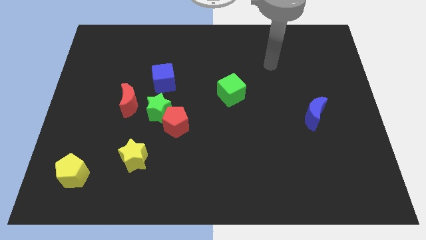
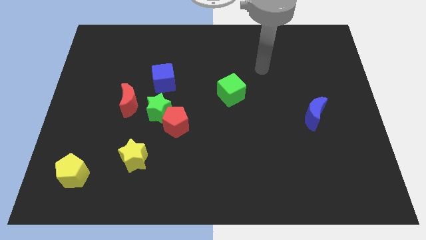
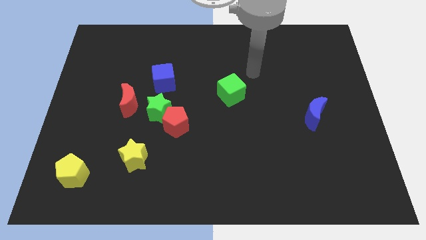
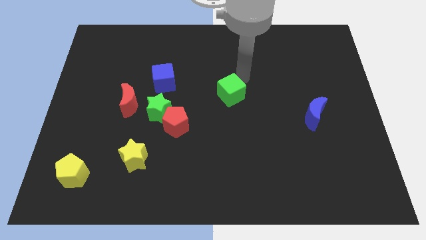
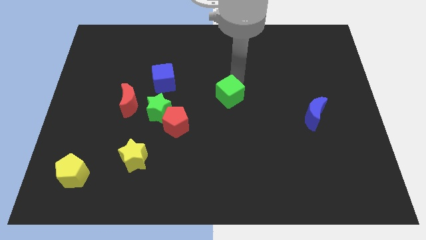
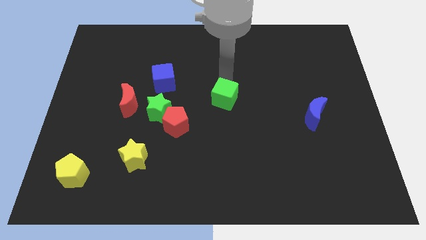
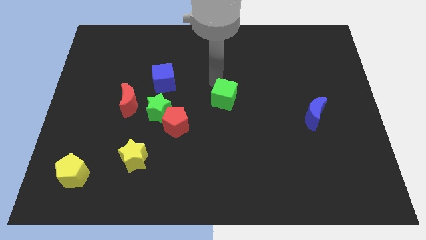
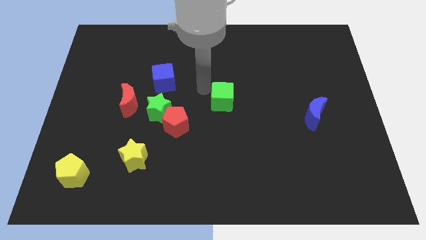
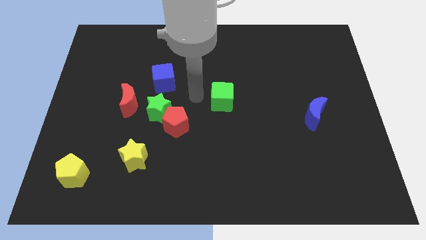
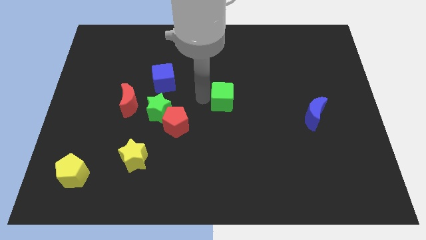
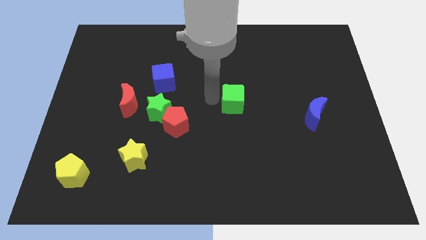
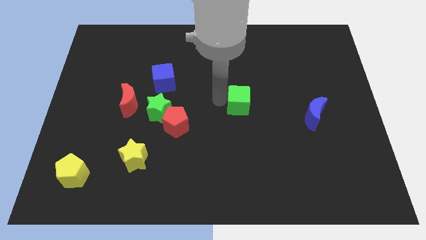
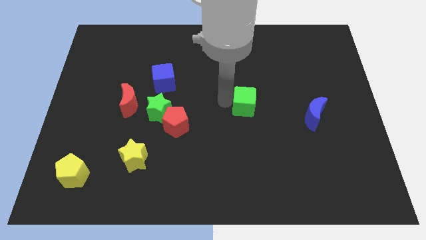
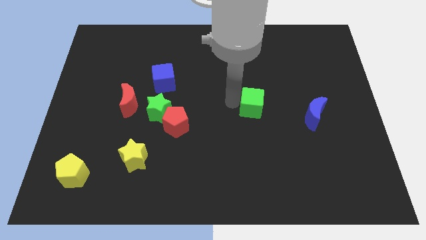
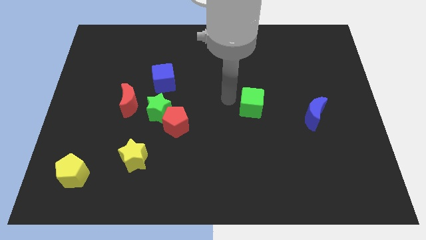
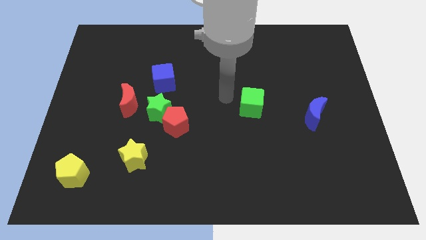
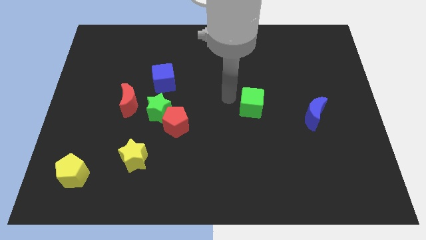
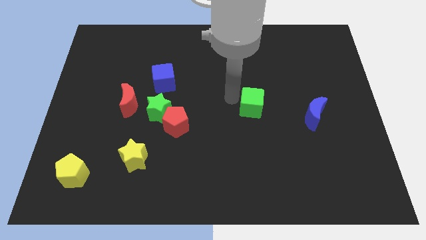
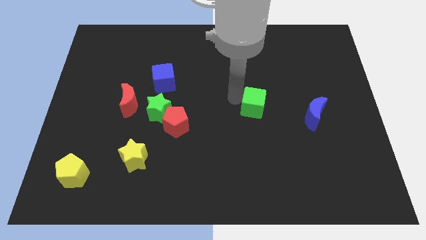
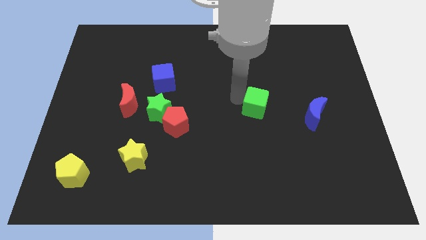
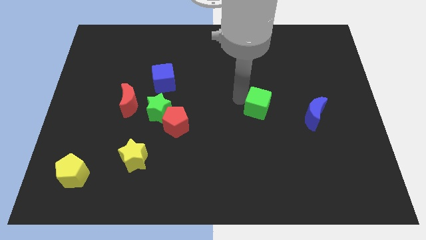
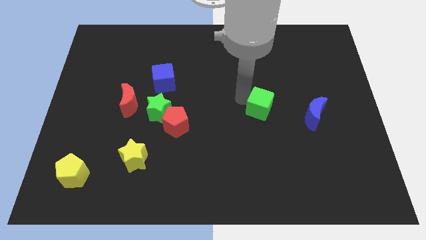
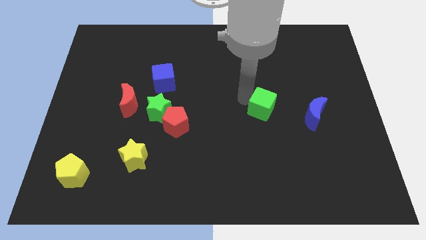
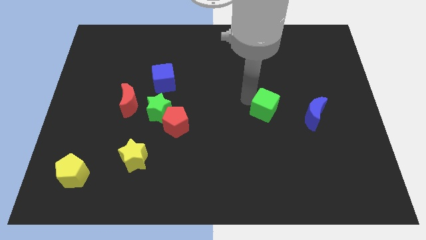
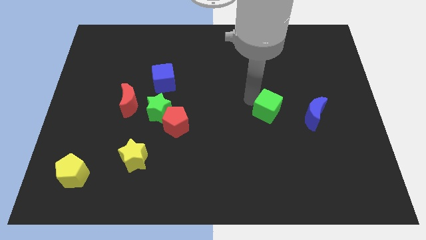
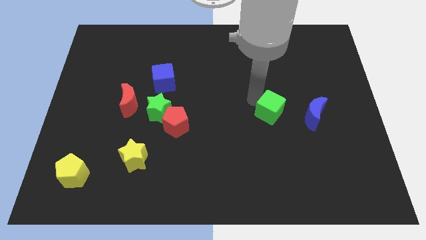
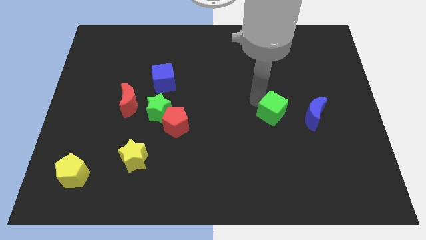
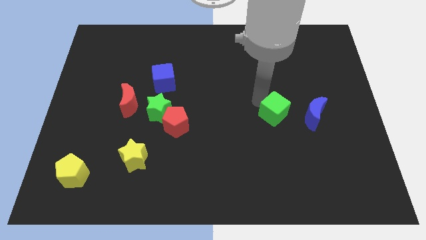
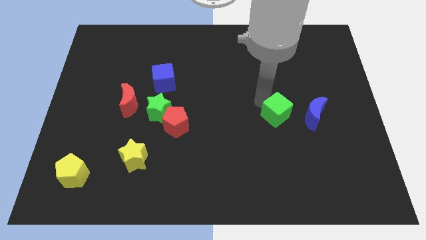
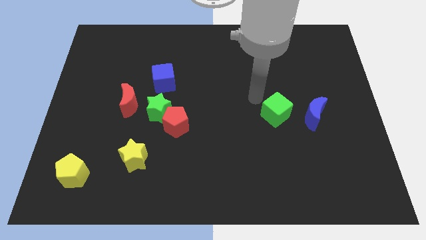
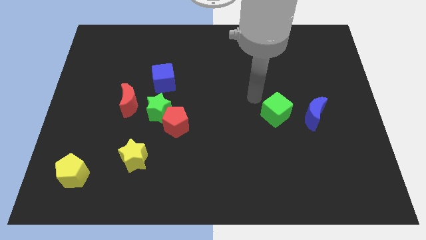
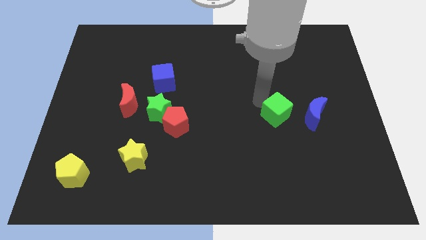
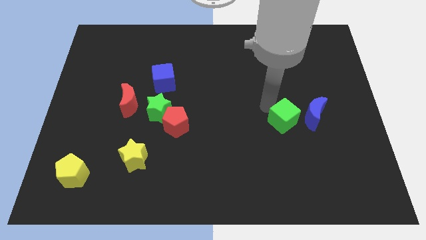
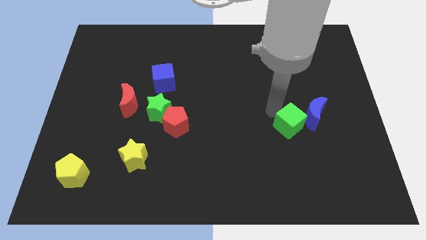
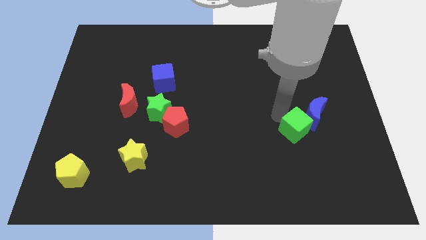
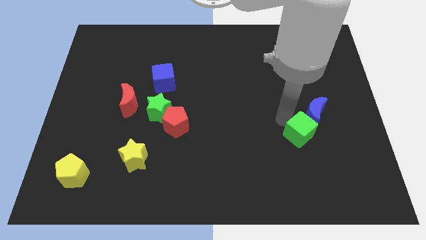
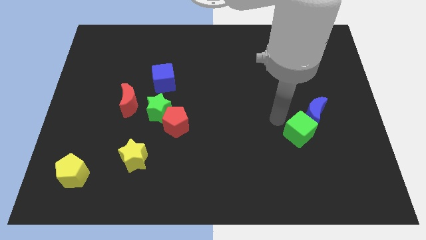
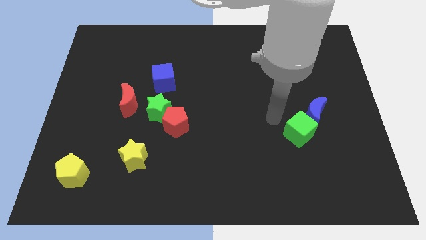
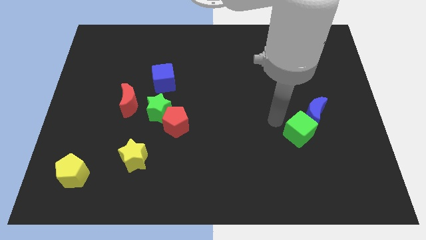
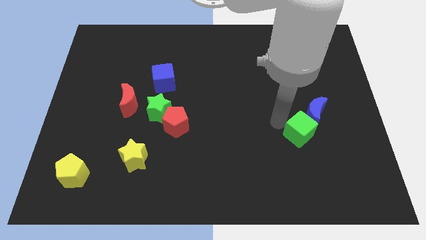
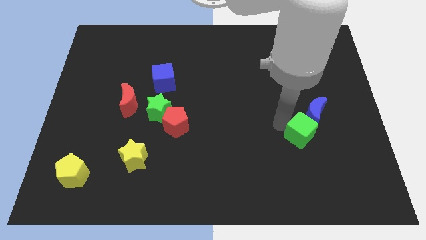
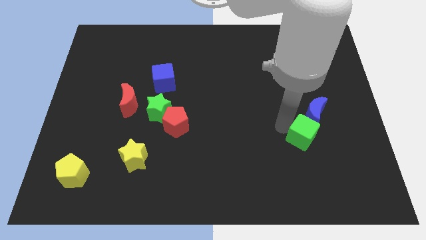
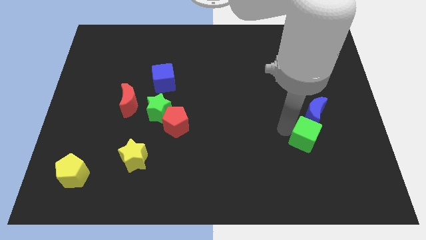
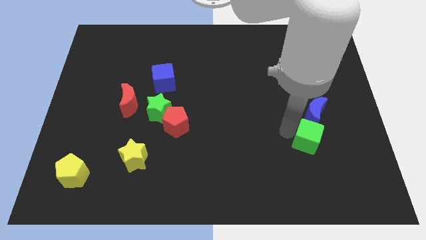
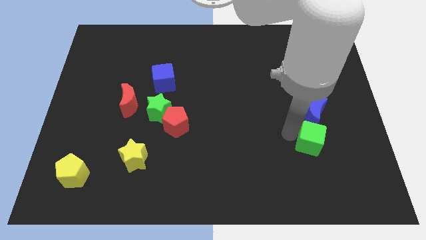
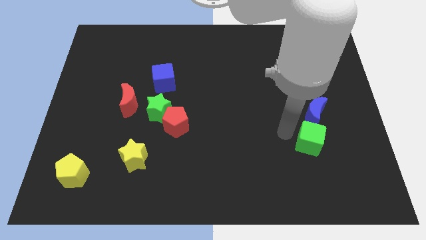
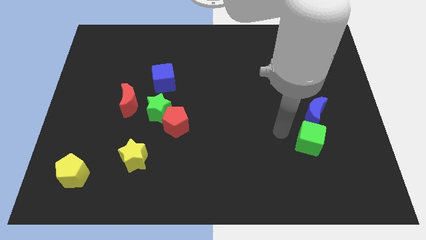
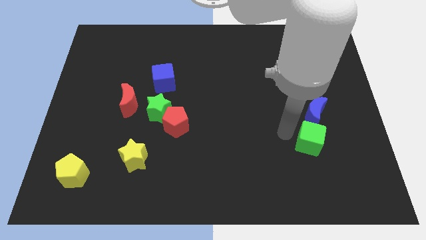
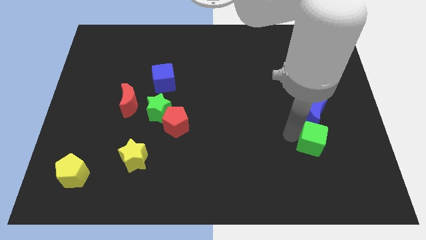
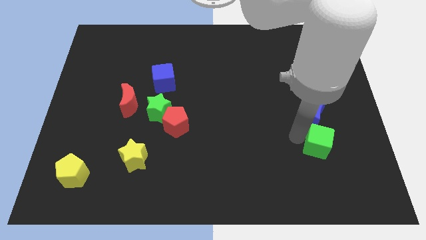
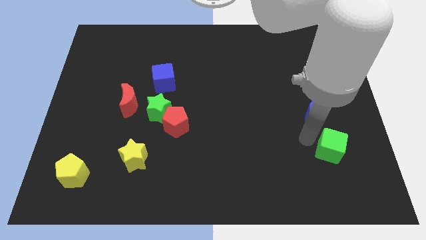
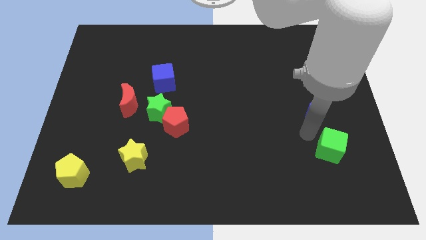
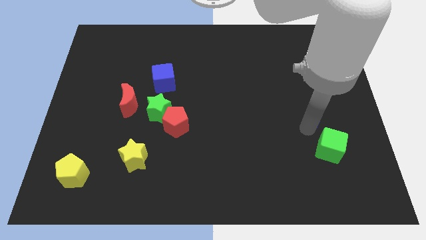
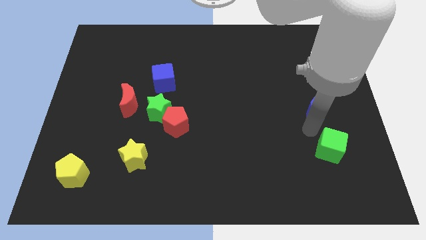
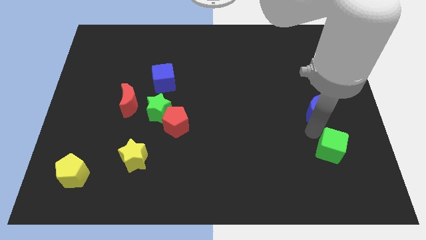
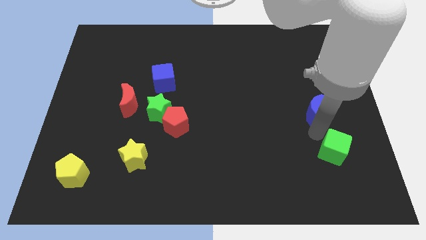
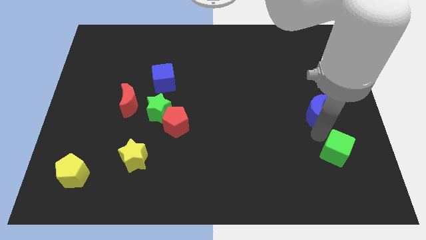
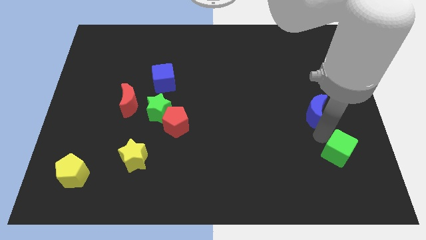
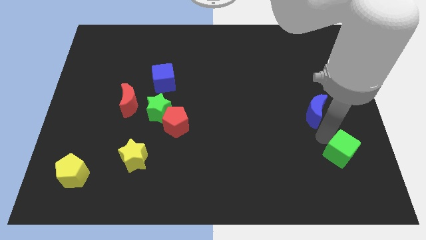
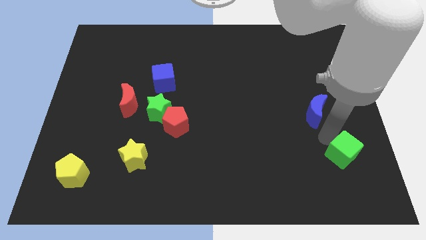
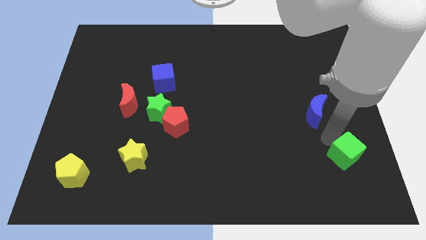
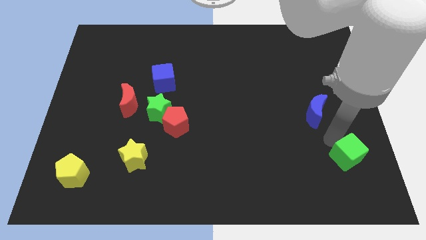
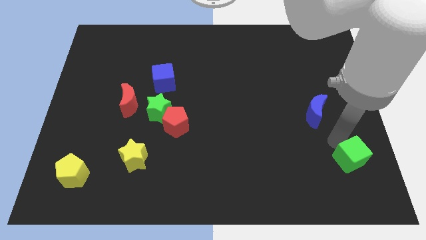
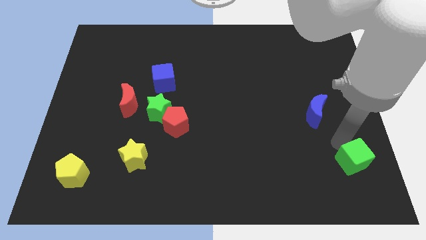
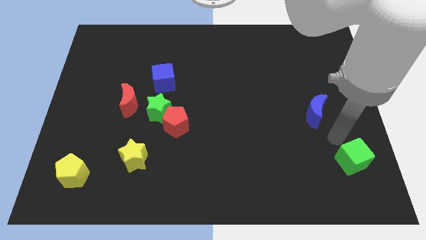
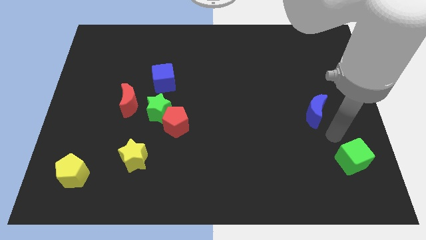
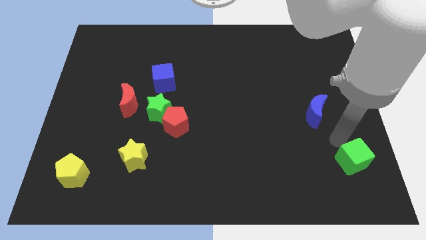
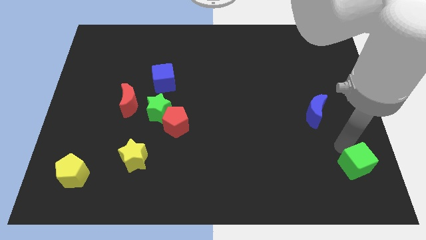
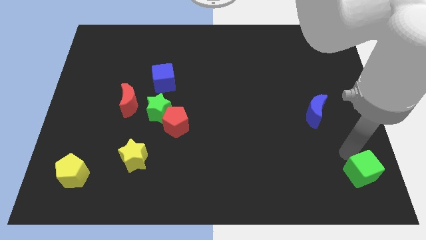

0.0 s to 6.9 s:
slide the green cube to the bottom right of the board
